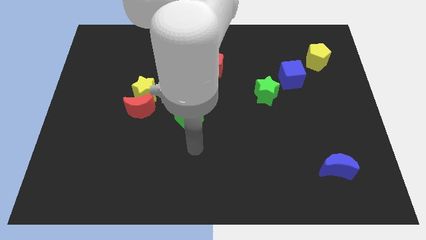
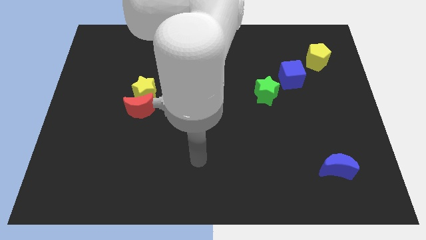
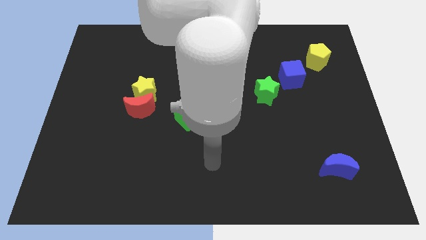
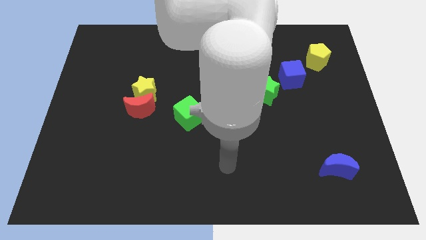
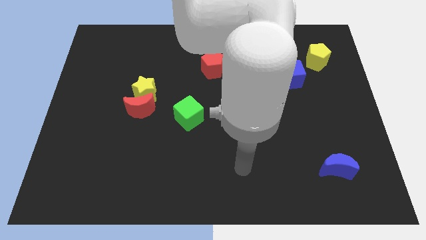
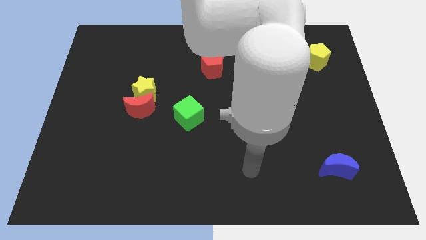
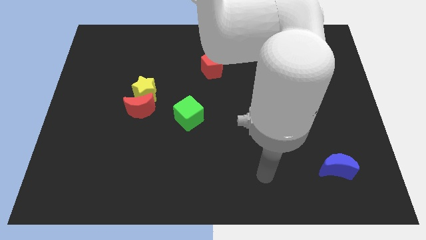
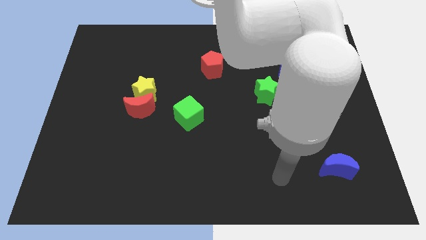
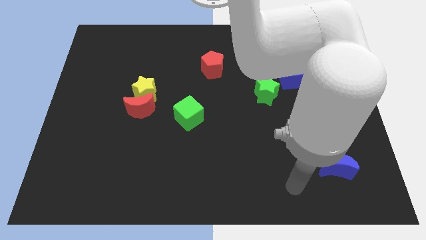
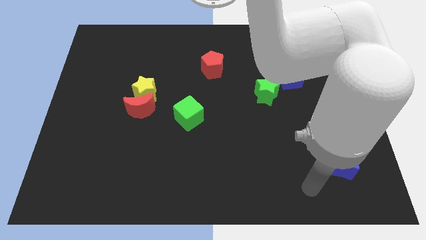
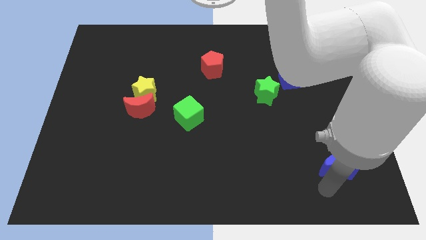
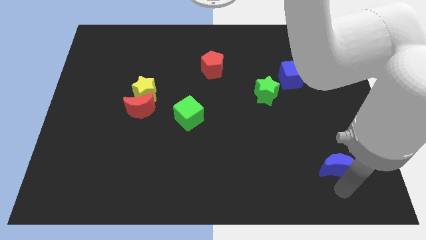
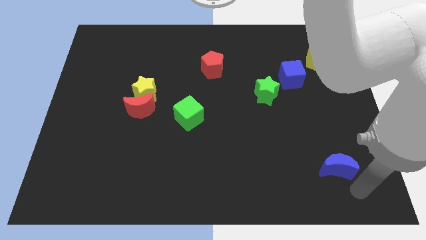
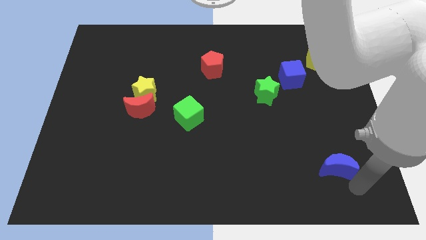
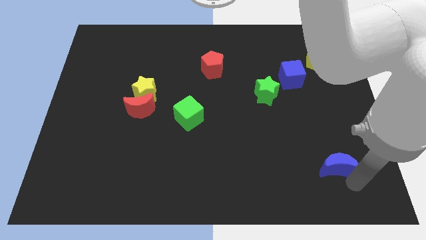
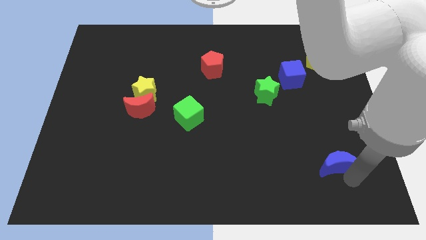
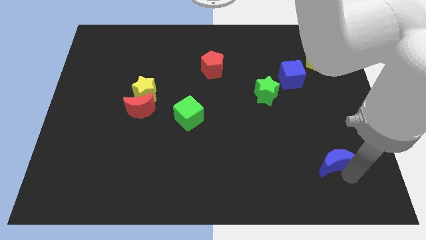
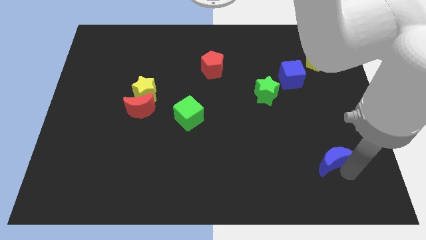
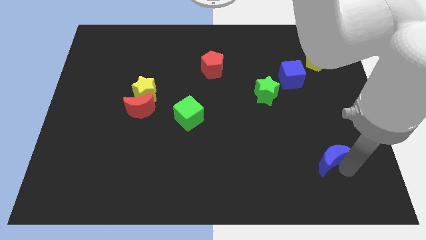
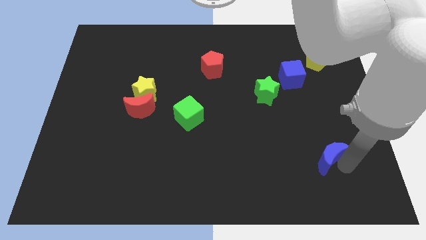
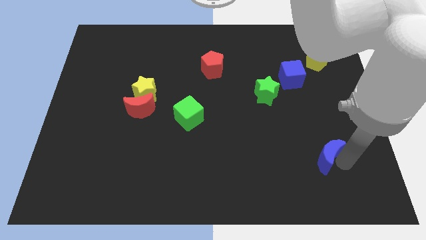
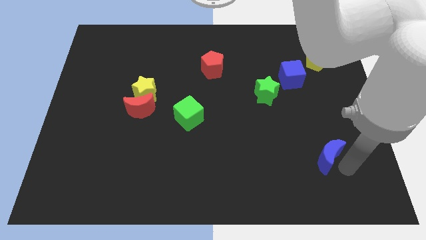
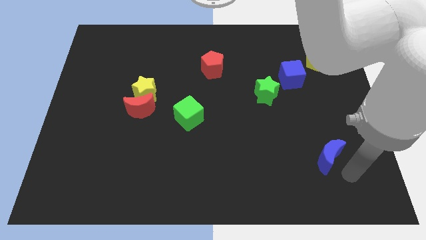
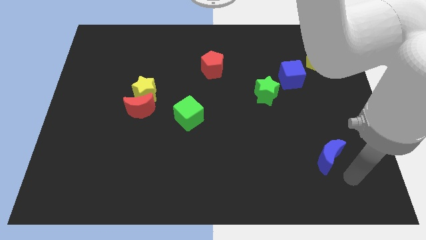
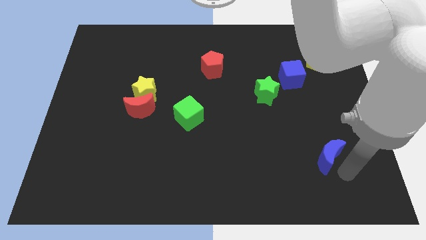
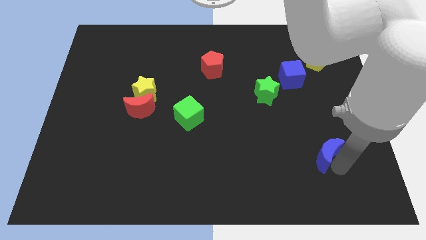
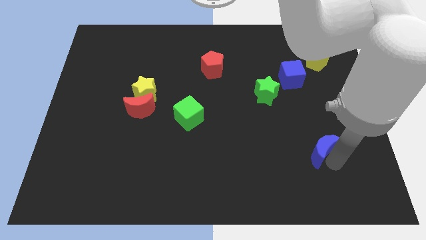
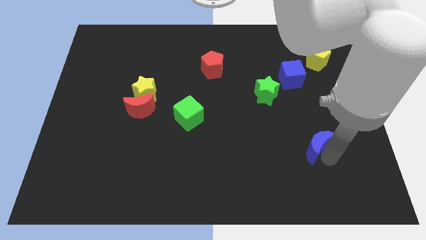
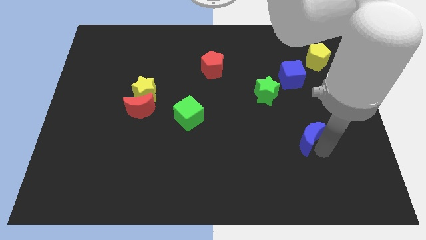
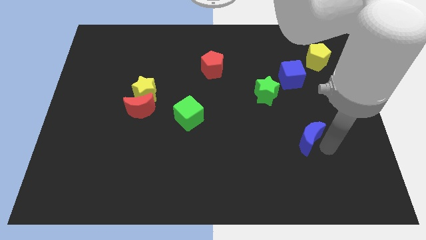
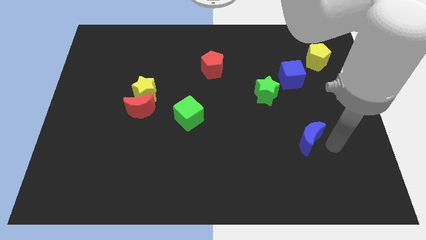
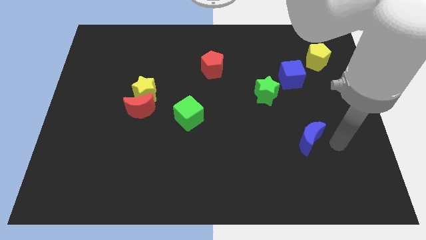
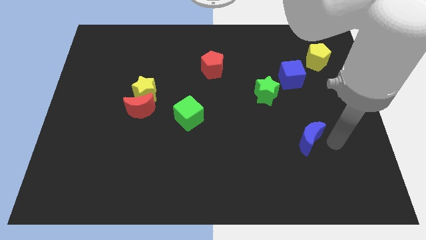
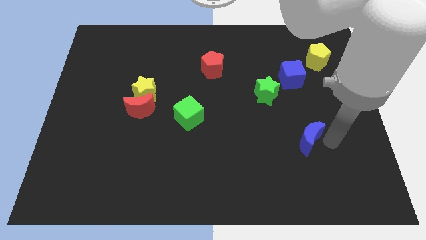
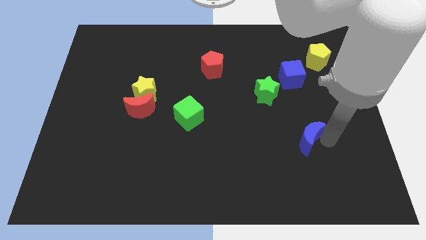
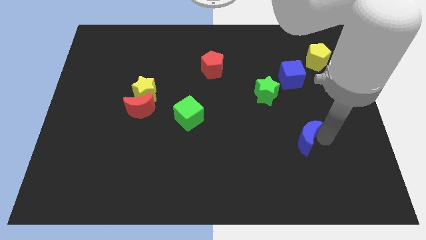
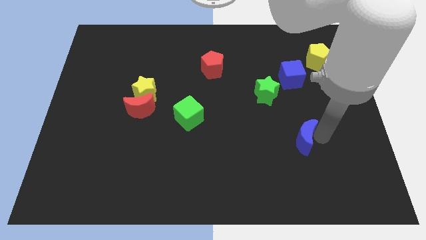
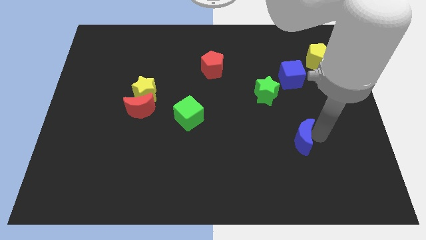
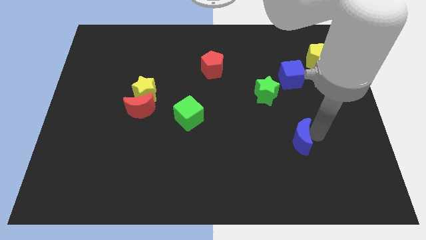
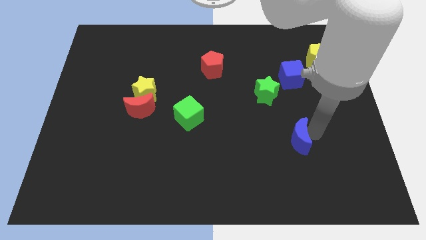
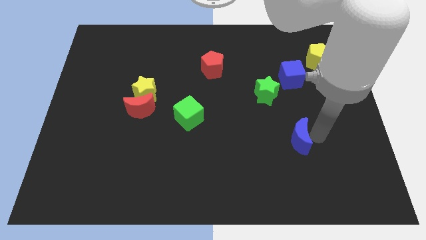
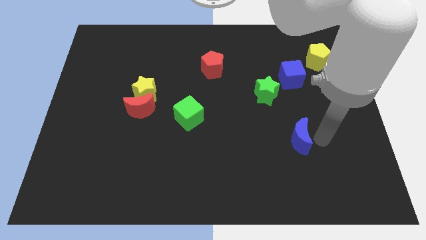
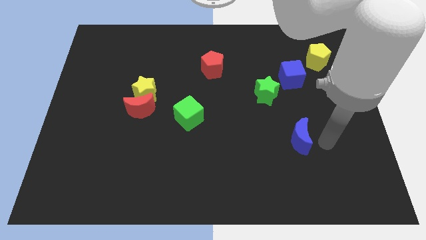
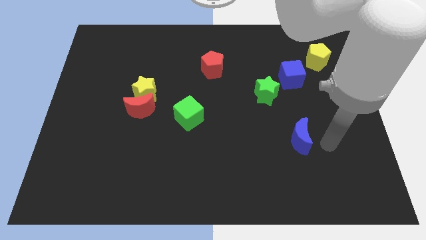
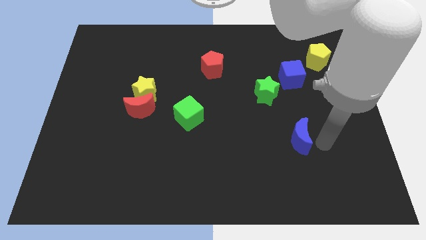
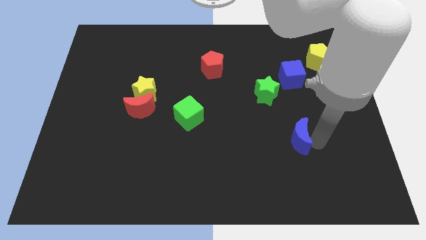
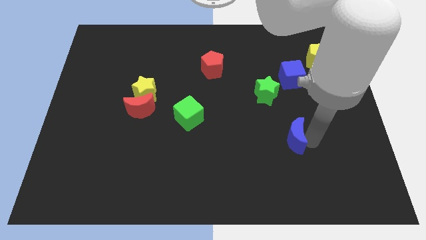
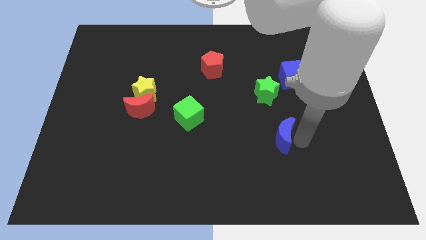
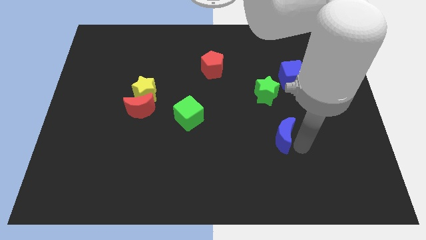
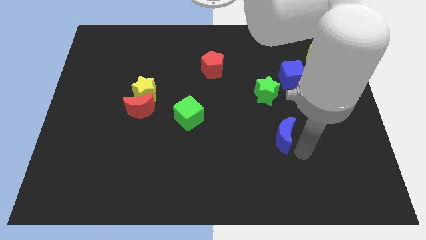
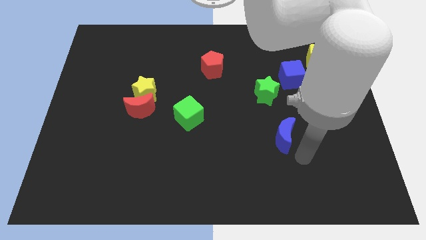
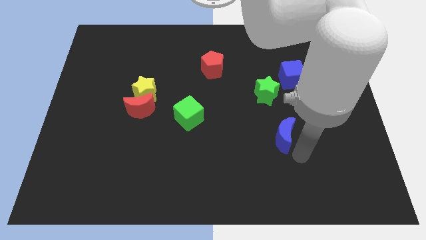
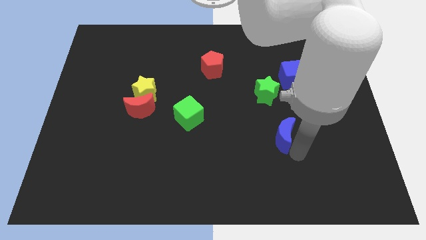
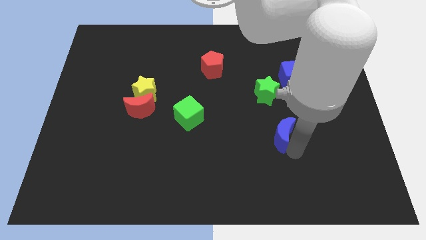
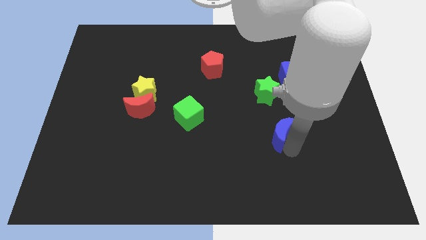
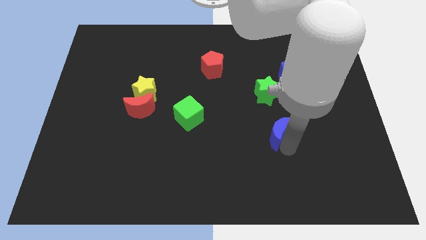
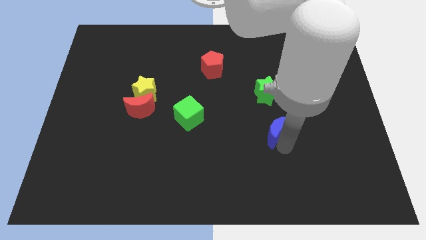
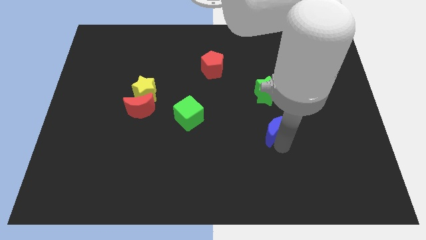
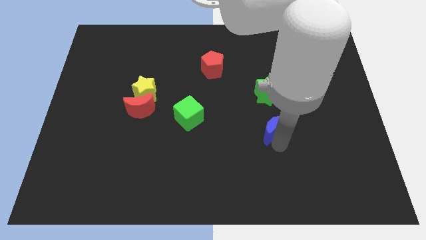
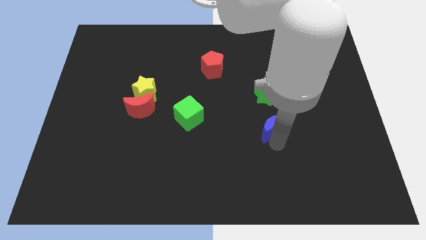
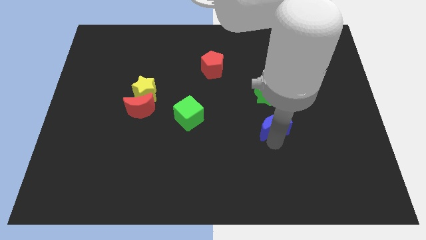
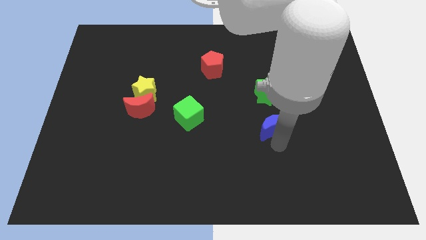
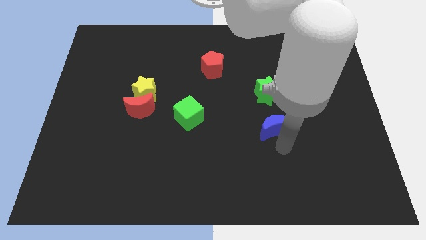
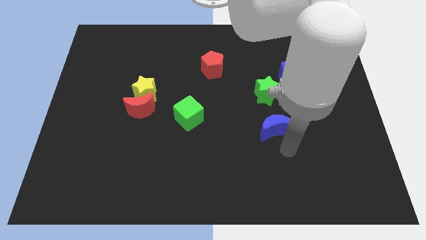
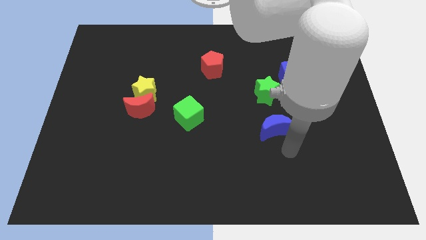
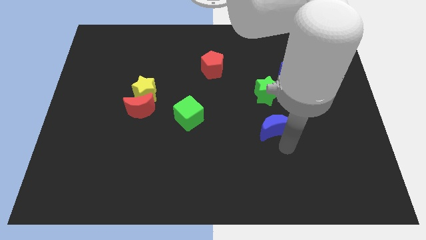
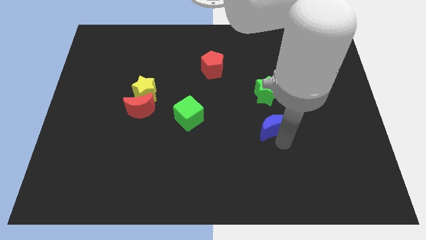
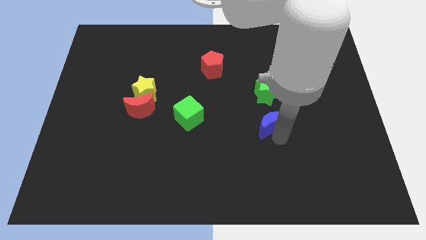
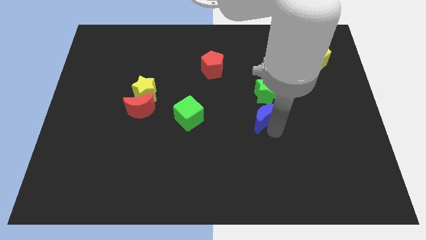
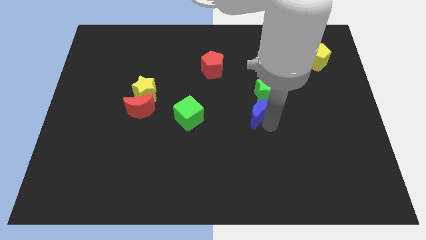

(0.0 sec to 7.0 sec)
push the blue moon up and then to the left

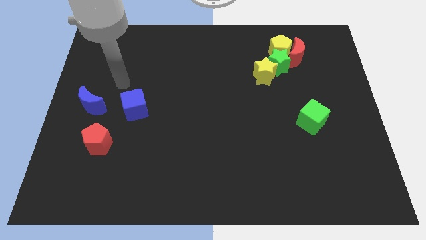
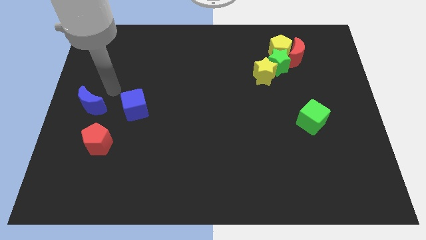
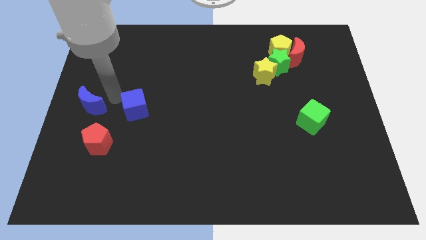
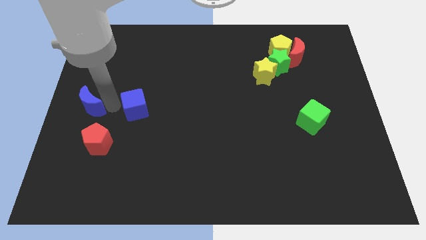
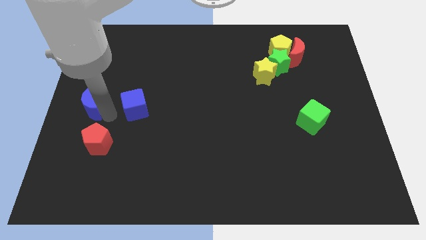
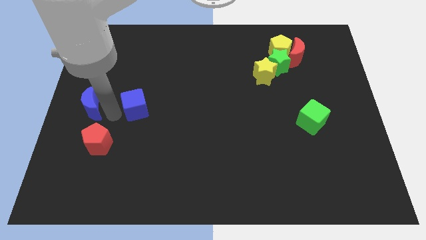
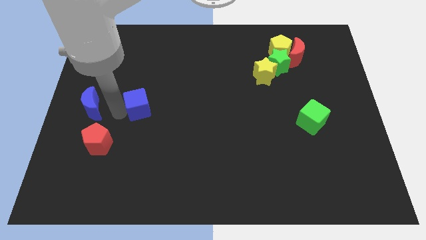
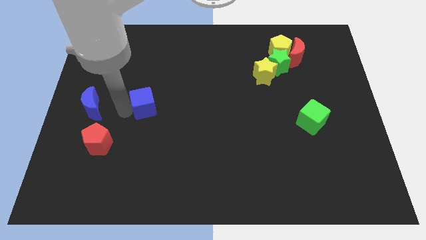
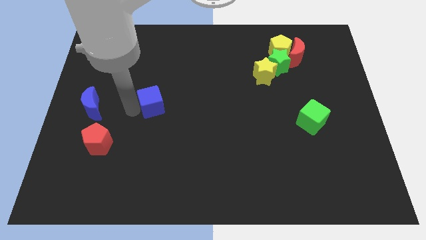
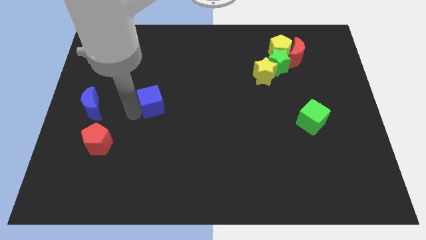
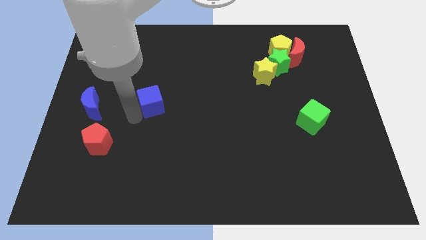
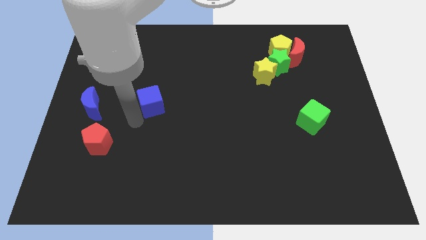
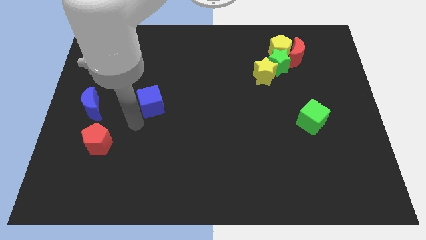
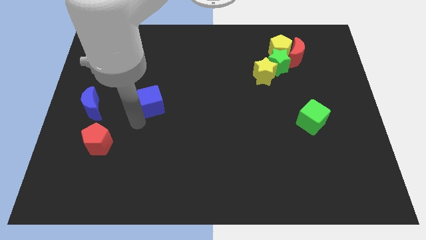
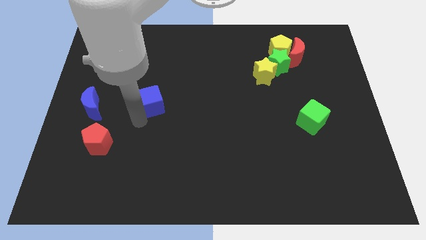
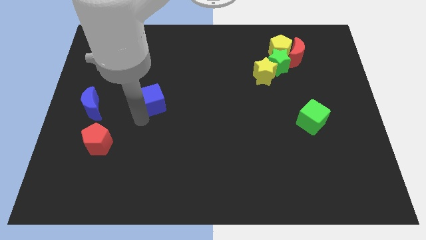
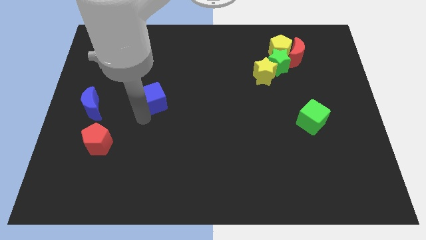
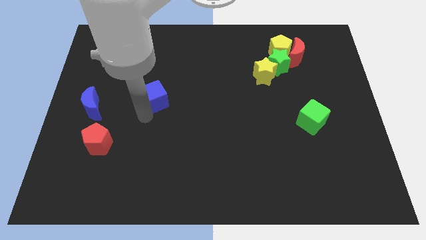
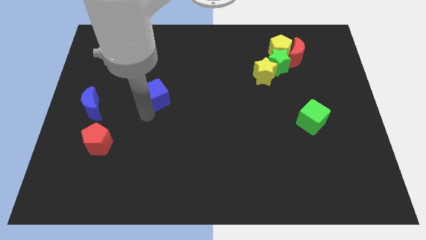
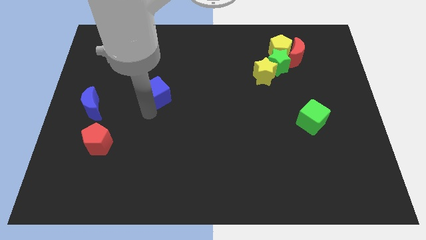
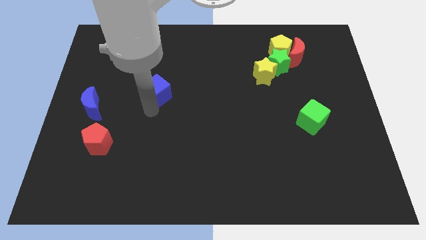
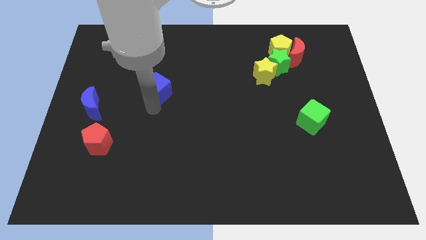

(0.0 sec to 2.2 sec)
slightly push the blue cube diagonally upwards and right
